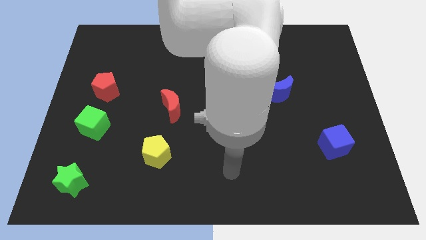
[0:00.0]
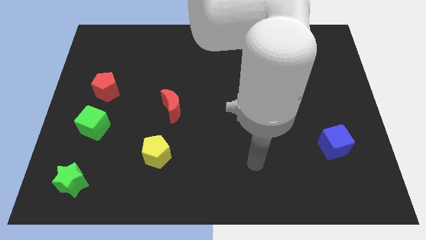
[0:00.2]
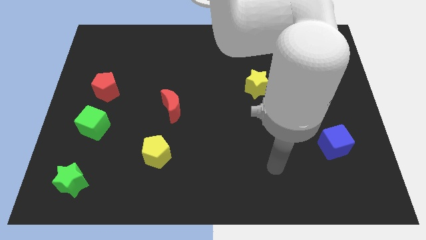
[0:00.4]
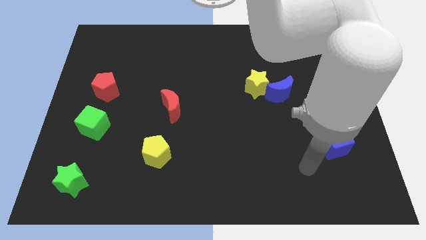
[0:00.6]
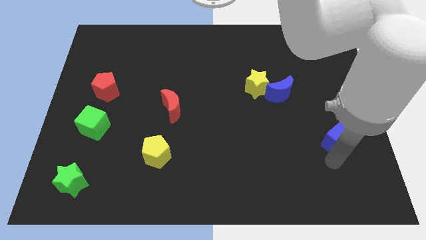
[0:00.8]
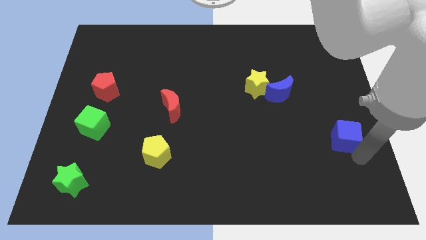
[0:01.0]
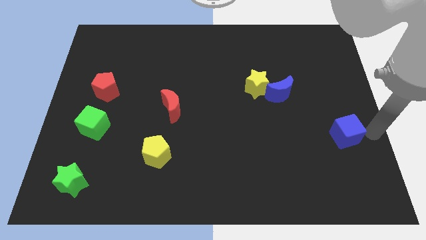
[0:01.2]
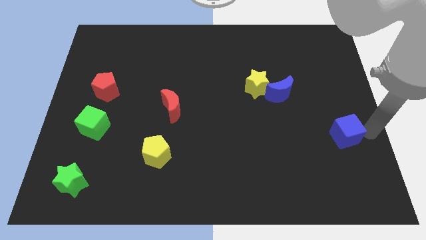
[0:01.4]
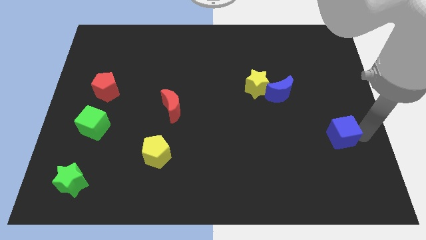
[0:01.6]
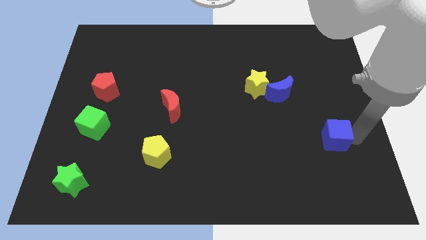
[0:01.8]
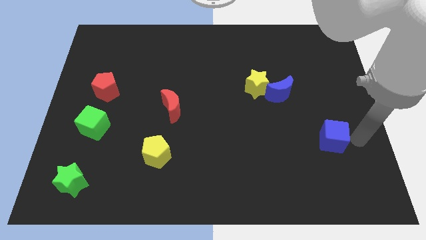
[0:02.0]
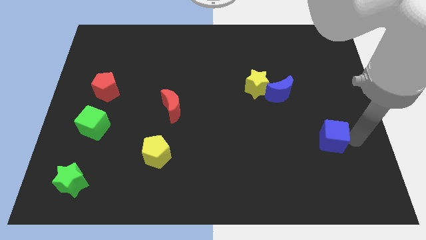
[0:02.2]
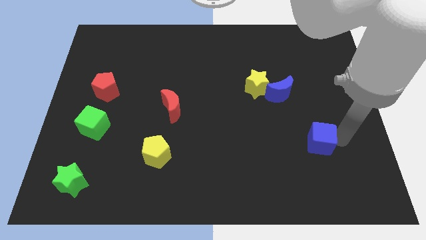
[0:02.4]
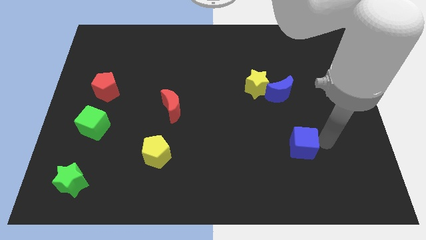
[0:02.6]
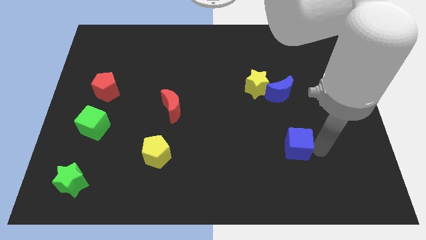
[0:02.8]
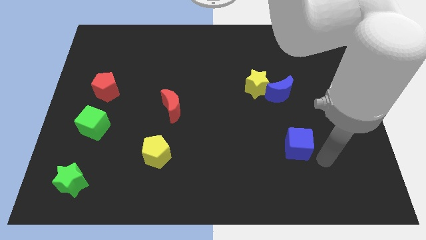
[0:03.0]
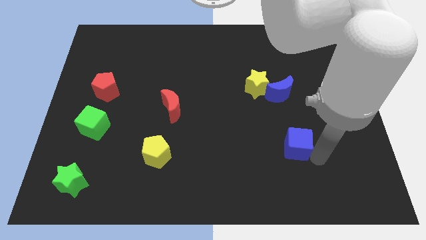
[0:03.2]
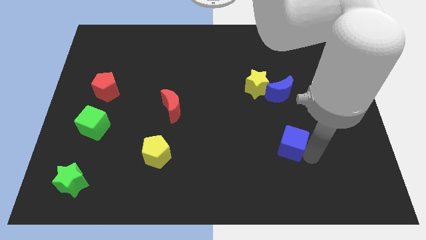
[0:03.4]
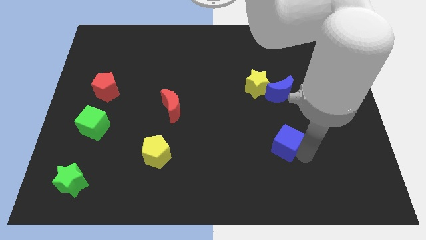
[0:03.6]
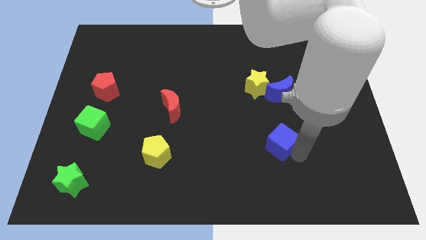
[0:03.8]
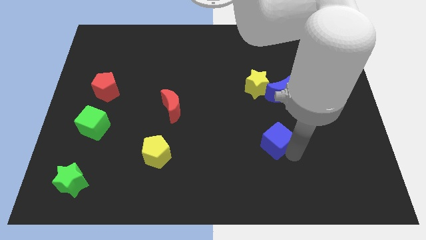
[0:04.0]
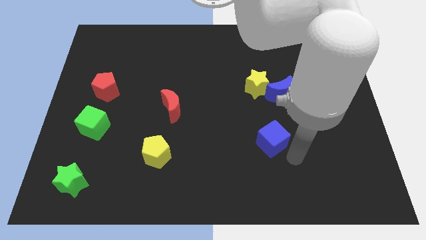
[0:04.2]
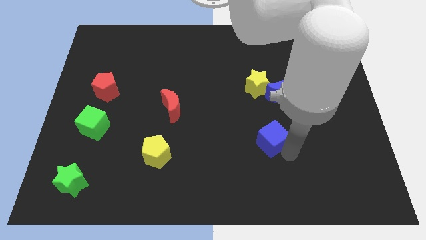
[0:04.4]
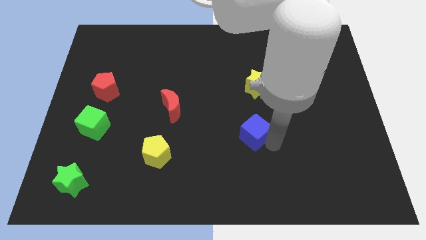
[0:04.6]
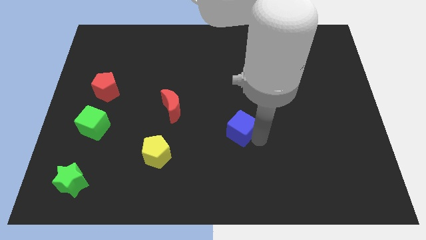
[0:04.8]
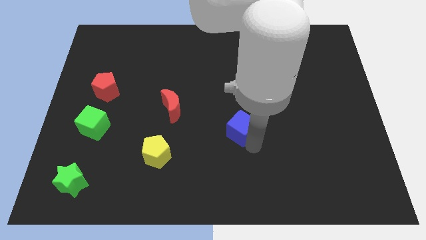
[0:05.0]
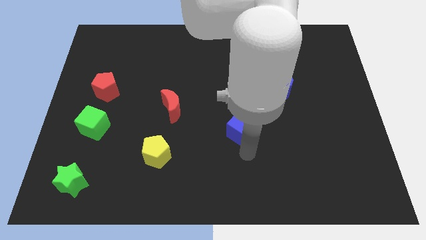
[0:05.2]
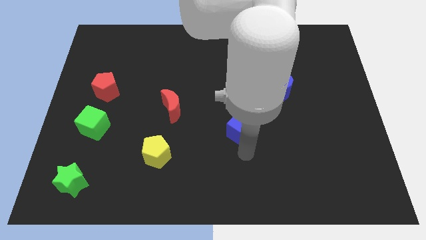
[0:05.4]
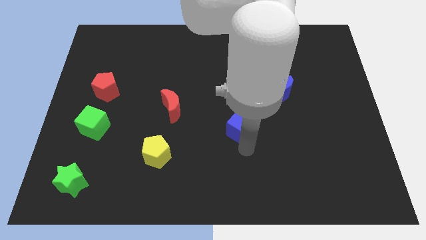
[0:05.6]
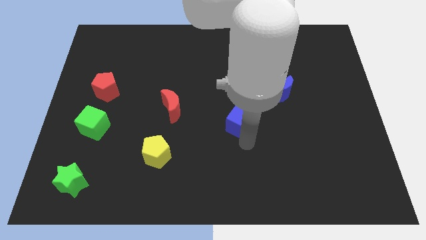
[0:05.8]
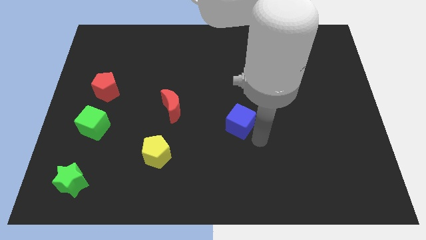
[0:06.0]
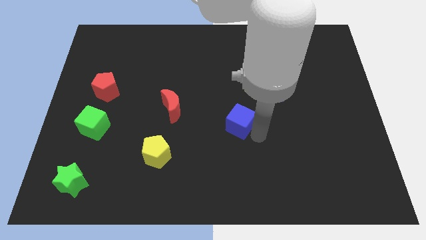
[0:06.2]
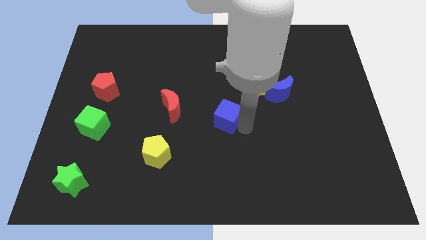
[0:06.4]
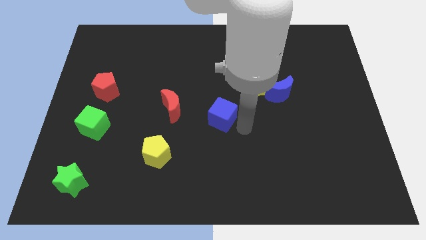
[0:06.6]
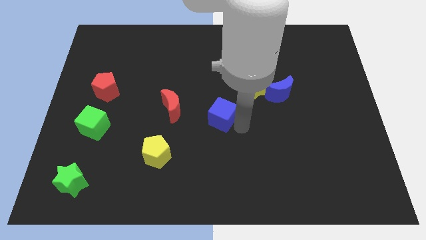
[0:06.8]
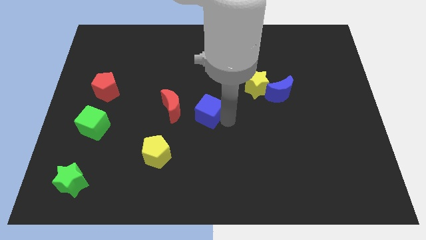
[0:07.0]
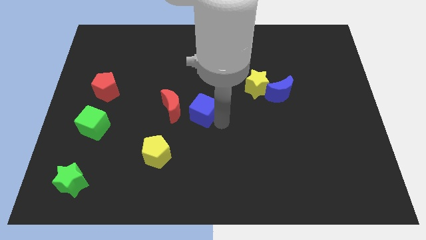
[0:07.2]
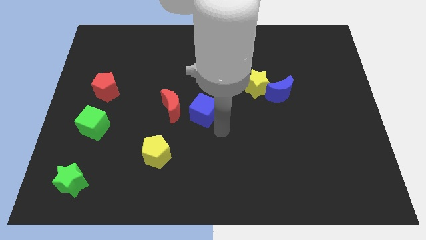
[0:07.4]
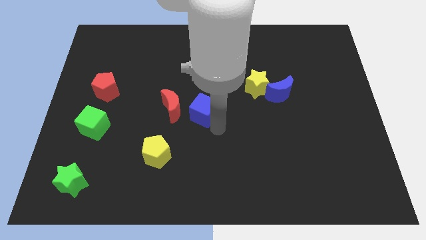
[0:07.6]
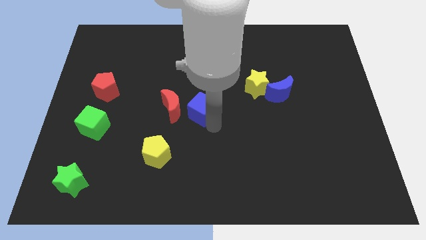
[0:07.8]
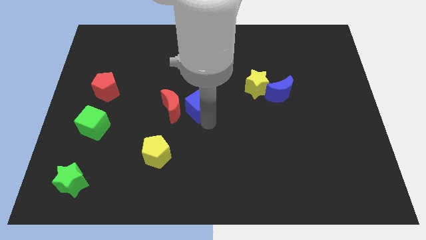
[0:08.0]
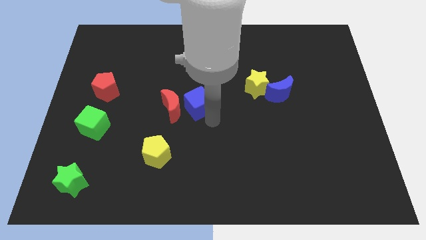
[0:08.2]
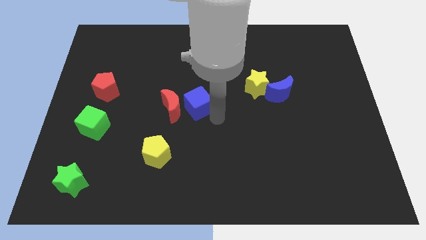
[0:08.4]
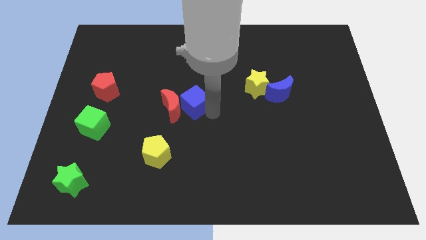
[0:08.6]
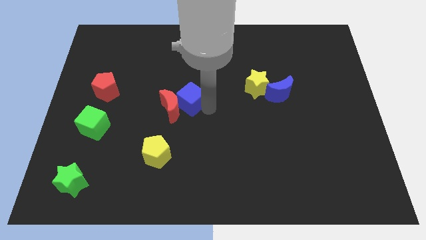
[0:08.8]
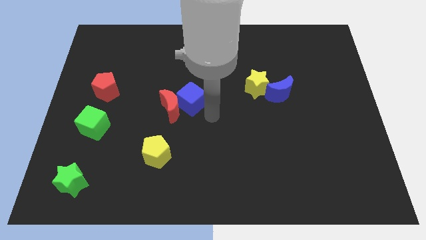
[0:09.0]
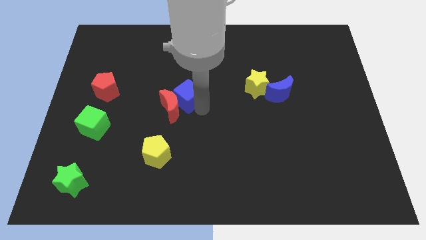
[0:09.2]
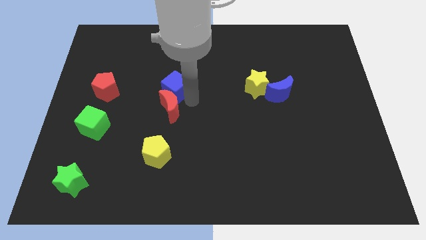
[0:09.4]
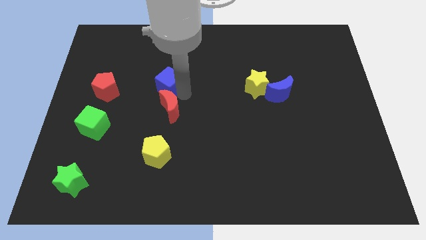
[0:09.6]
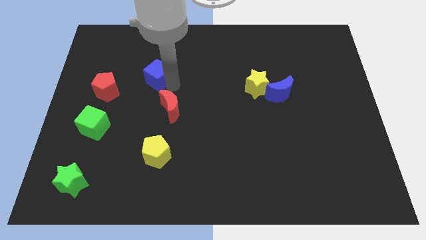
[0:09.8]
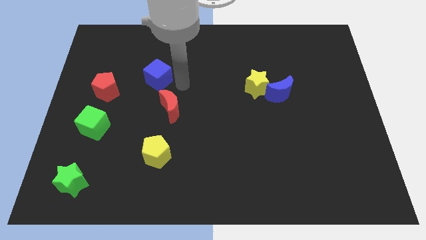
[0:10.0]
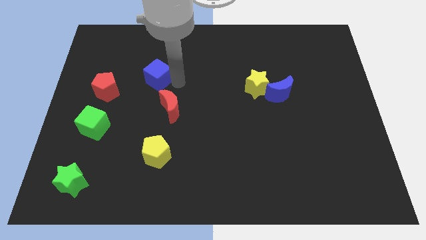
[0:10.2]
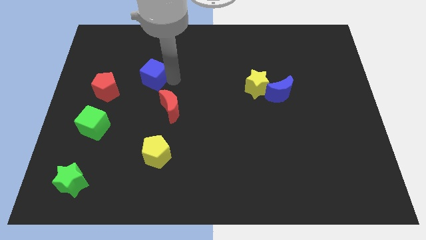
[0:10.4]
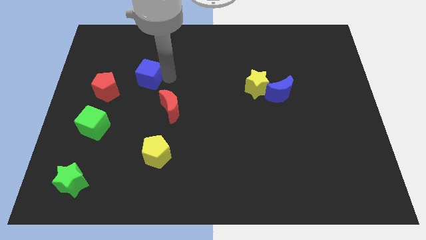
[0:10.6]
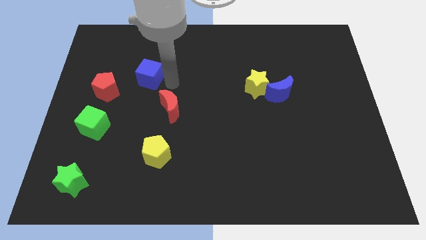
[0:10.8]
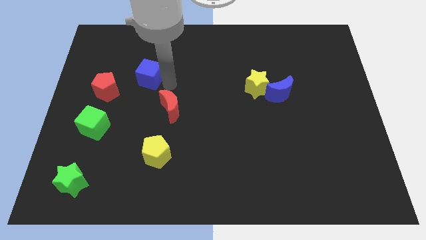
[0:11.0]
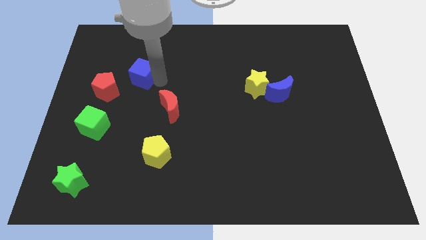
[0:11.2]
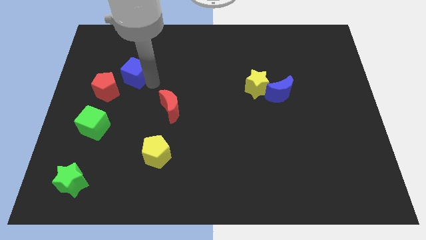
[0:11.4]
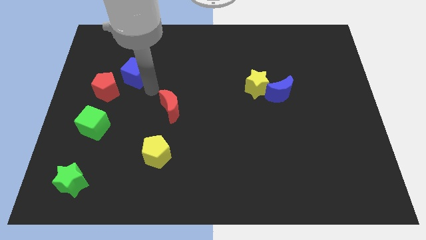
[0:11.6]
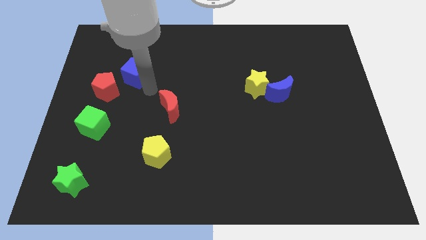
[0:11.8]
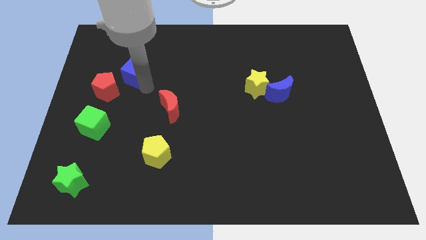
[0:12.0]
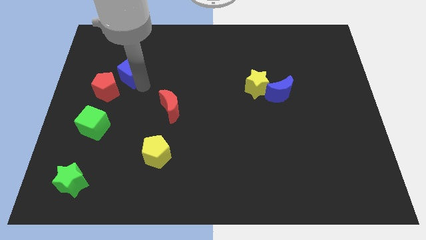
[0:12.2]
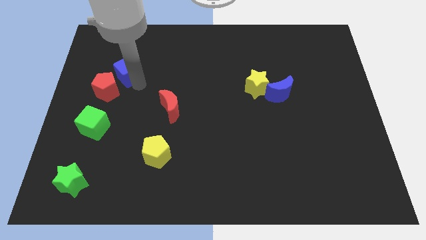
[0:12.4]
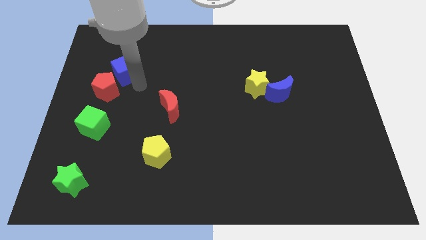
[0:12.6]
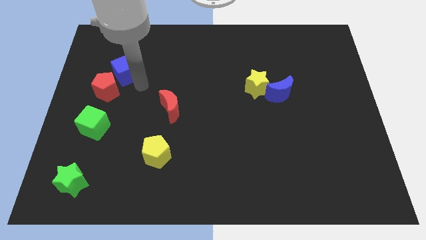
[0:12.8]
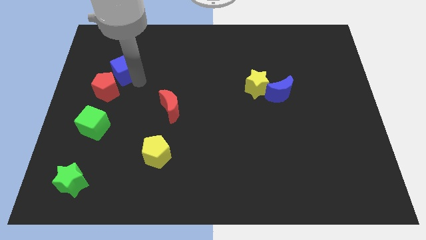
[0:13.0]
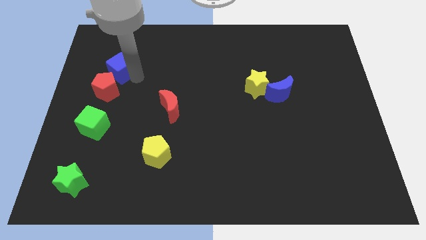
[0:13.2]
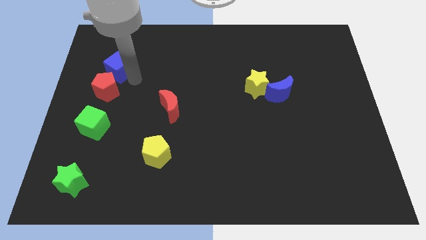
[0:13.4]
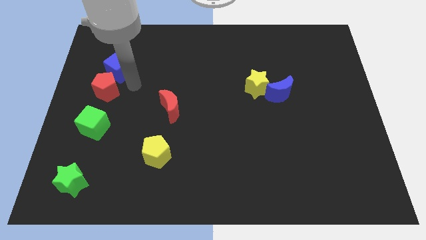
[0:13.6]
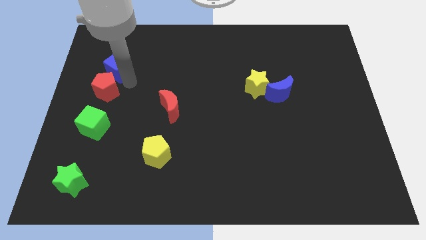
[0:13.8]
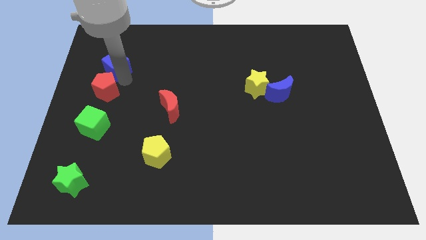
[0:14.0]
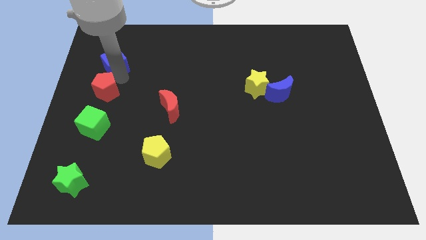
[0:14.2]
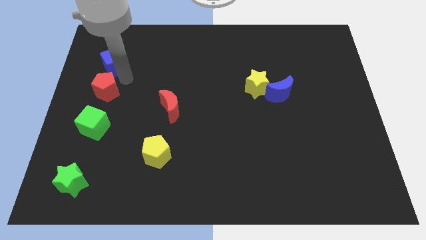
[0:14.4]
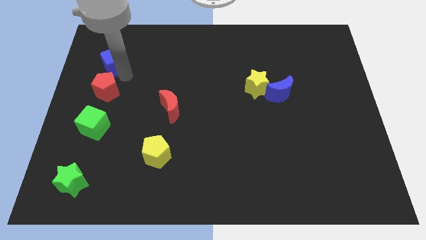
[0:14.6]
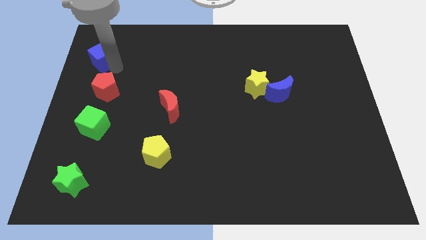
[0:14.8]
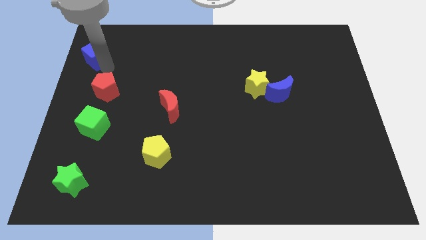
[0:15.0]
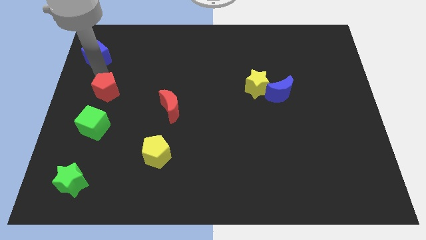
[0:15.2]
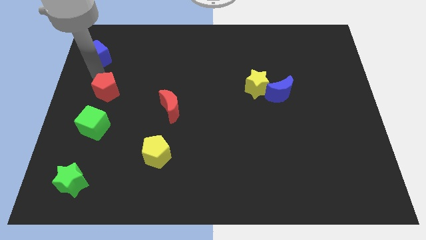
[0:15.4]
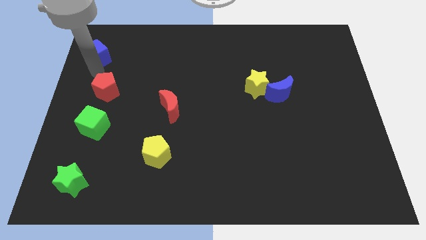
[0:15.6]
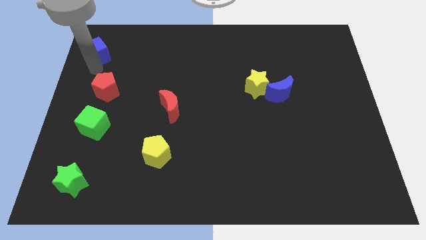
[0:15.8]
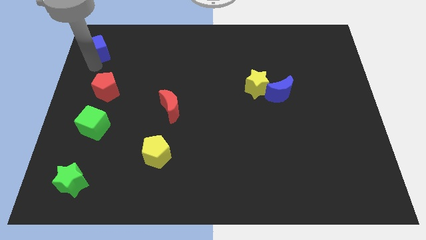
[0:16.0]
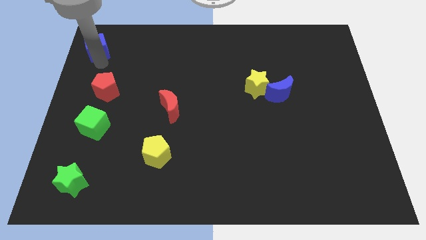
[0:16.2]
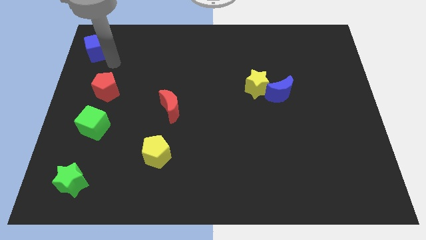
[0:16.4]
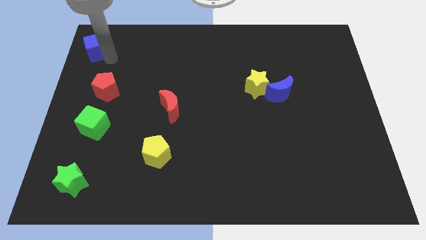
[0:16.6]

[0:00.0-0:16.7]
put the blue cube to the top left of the board
